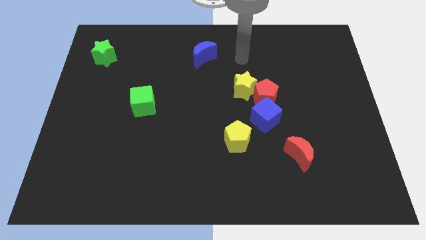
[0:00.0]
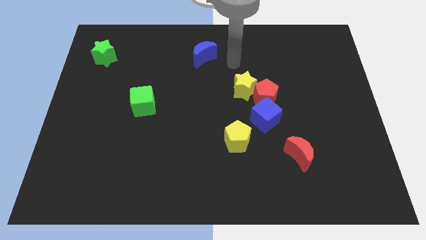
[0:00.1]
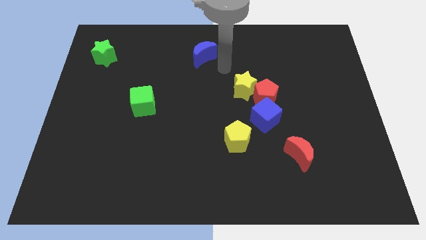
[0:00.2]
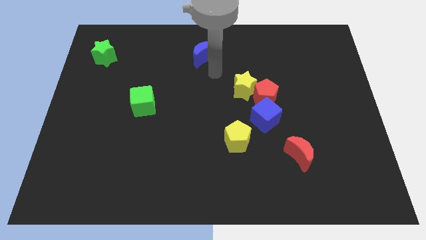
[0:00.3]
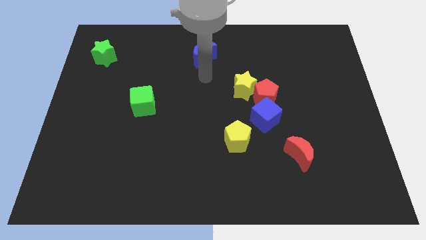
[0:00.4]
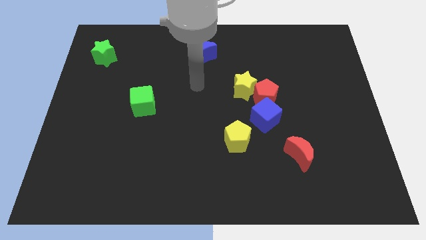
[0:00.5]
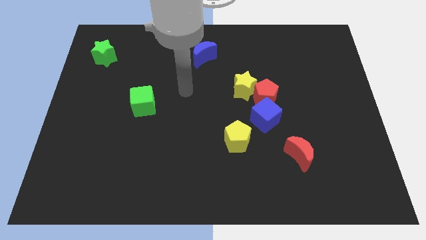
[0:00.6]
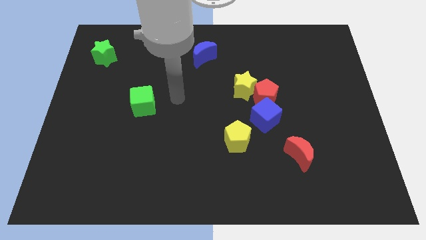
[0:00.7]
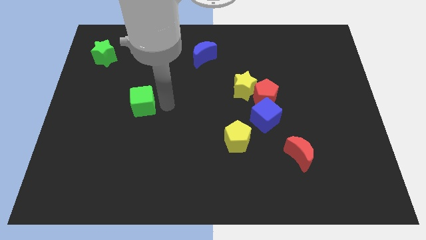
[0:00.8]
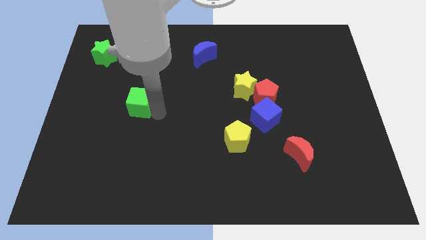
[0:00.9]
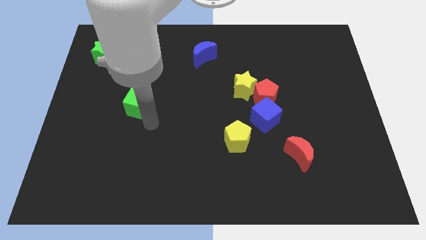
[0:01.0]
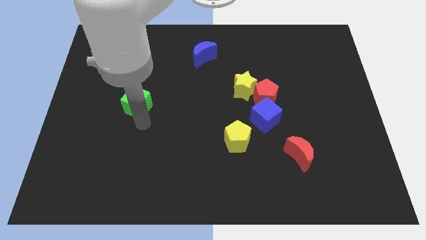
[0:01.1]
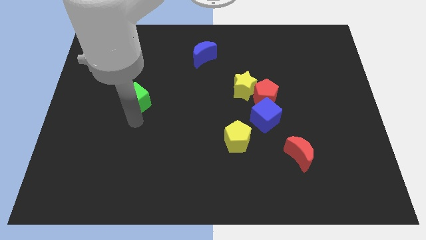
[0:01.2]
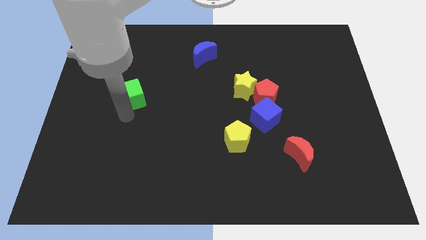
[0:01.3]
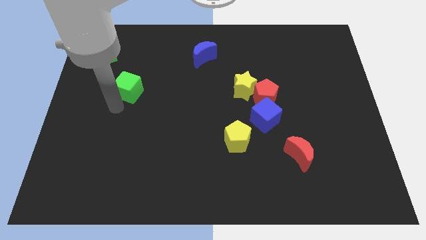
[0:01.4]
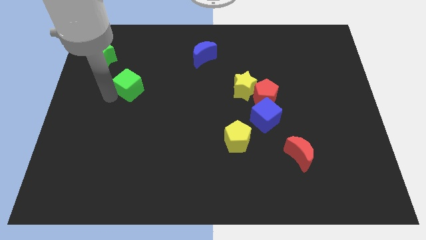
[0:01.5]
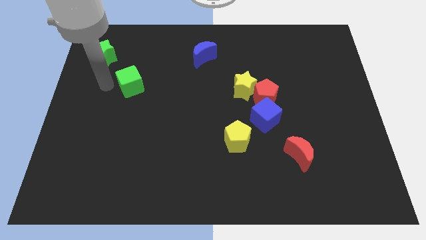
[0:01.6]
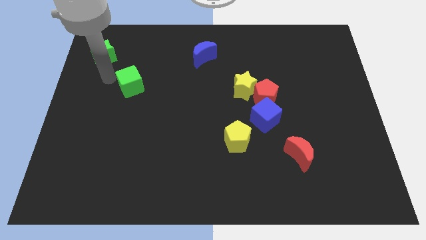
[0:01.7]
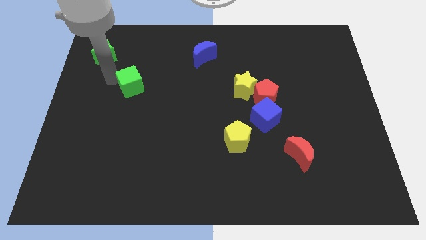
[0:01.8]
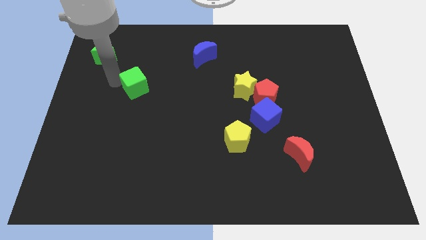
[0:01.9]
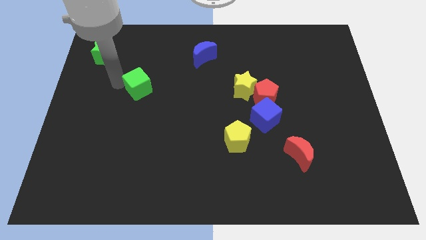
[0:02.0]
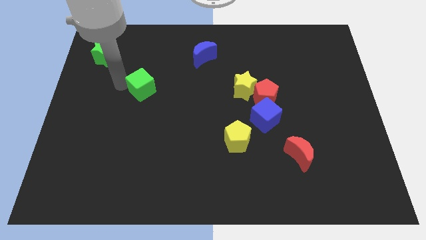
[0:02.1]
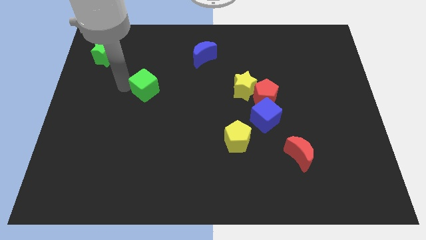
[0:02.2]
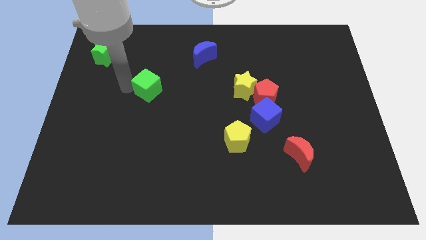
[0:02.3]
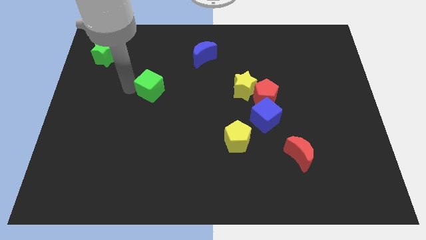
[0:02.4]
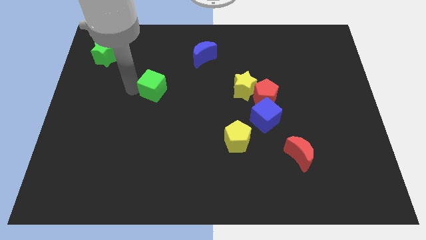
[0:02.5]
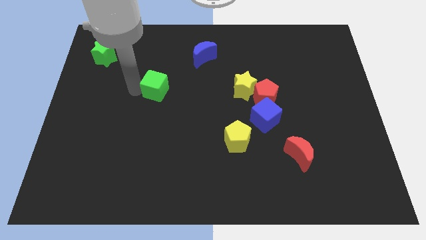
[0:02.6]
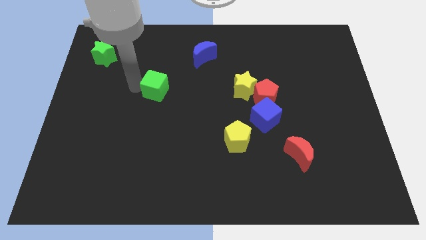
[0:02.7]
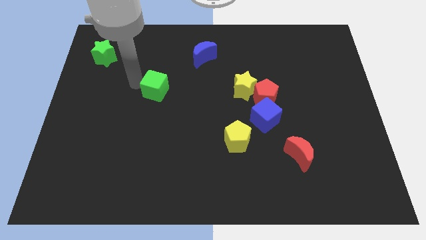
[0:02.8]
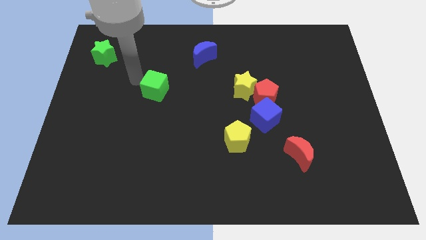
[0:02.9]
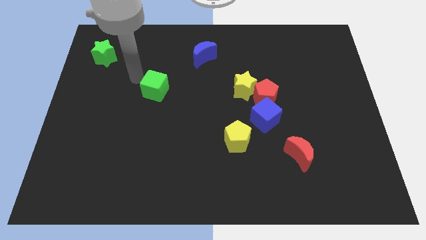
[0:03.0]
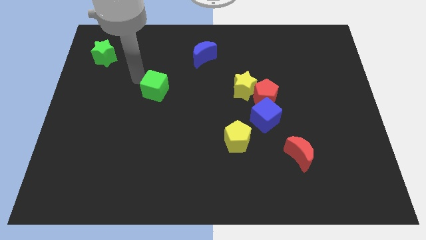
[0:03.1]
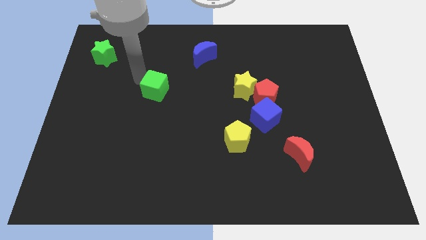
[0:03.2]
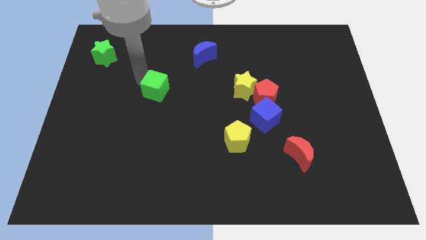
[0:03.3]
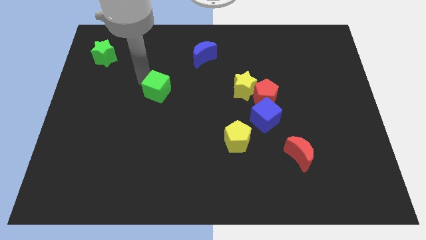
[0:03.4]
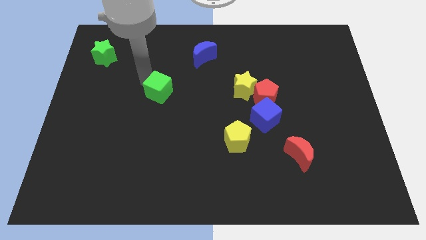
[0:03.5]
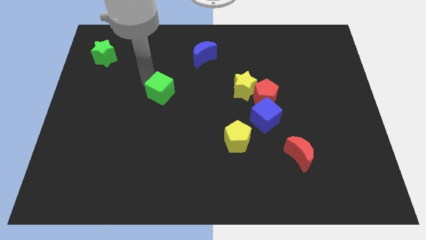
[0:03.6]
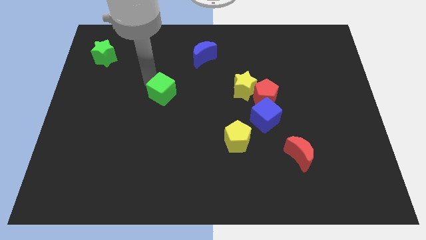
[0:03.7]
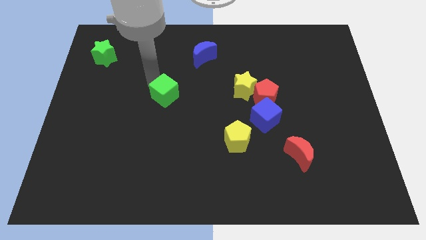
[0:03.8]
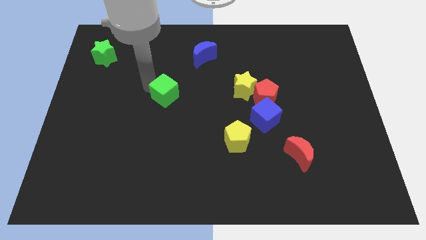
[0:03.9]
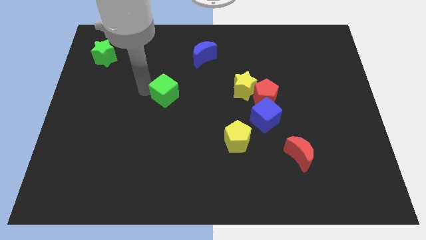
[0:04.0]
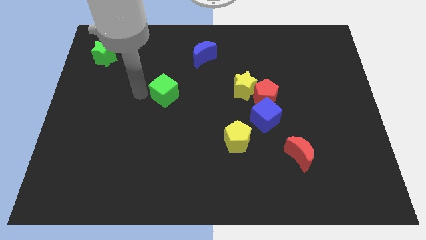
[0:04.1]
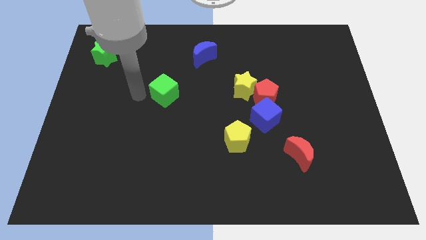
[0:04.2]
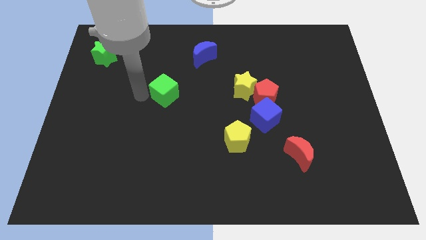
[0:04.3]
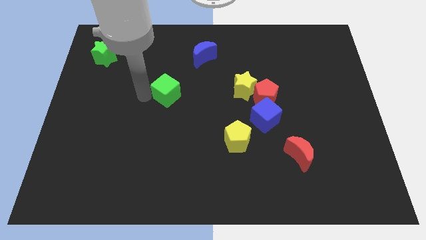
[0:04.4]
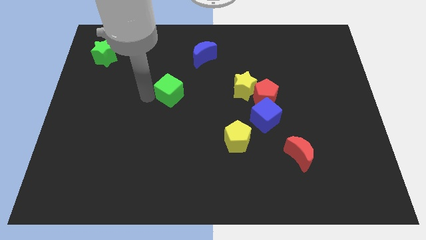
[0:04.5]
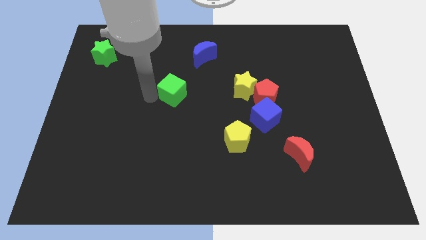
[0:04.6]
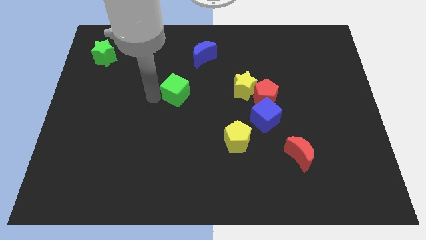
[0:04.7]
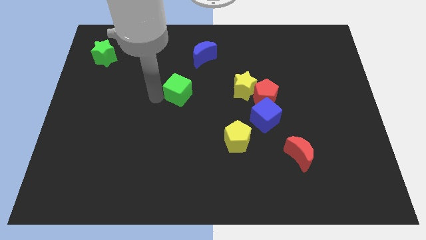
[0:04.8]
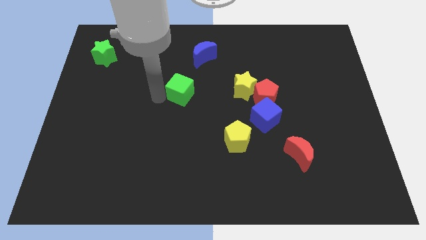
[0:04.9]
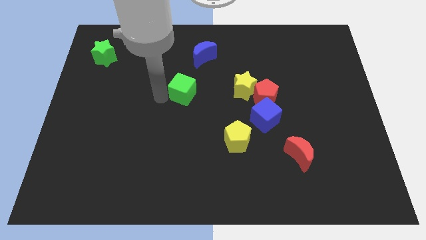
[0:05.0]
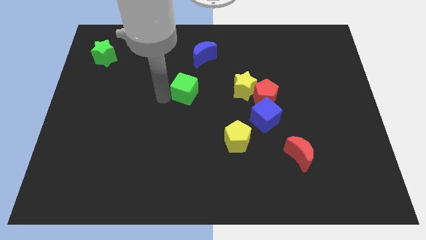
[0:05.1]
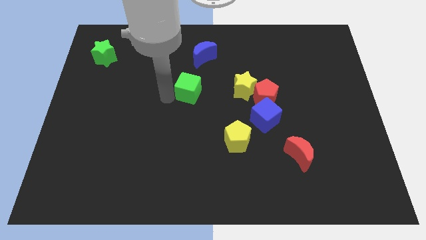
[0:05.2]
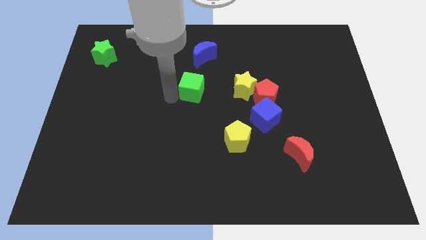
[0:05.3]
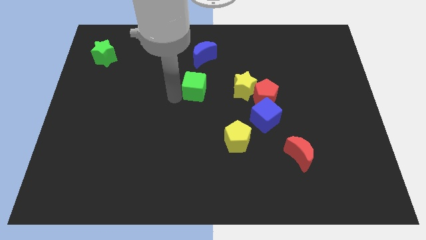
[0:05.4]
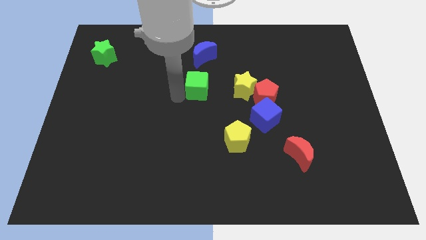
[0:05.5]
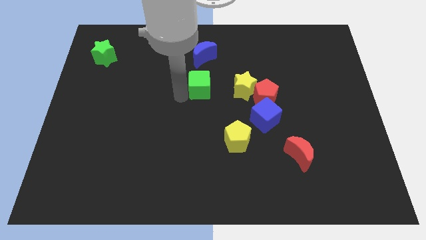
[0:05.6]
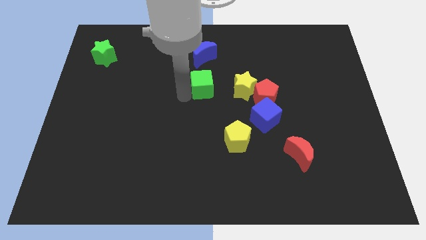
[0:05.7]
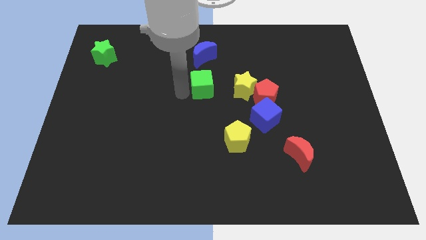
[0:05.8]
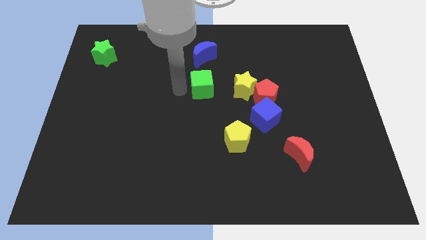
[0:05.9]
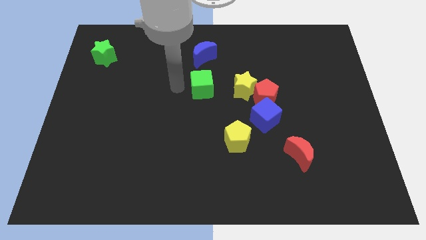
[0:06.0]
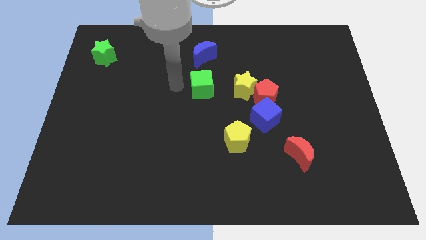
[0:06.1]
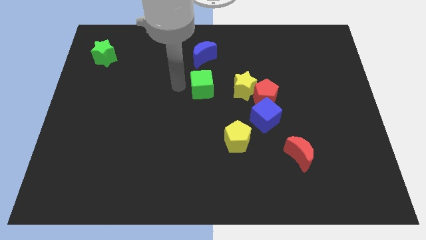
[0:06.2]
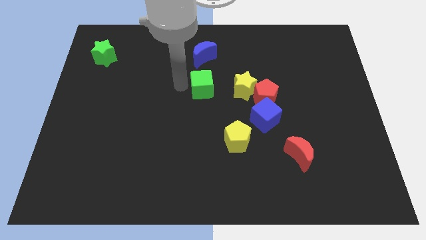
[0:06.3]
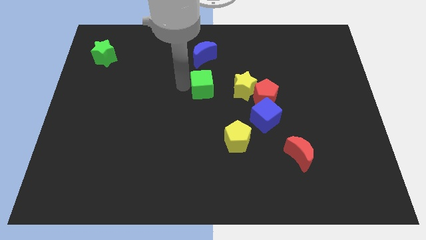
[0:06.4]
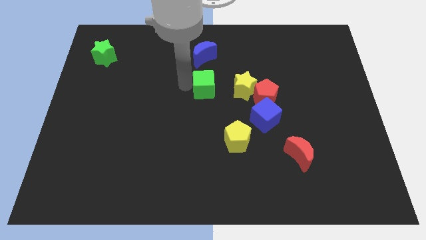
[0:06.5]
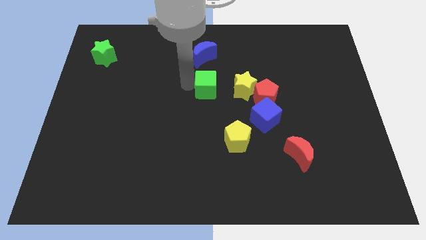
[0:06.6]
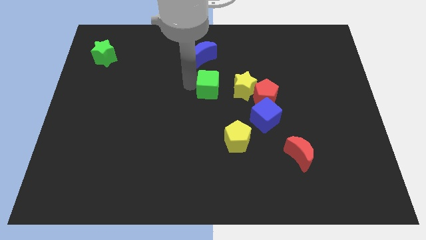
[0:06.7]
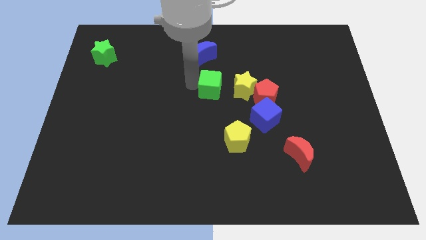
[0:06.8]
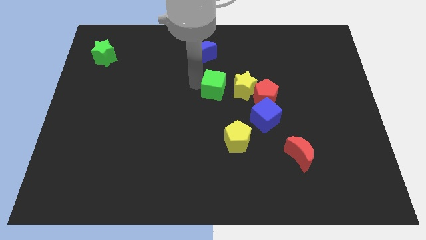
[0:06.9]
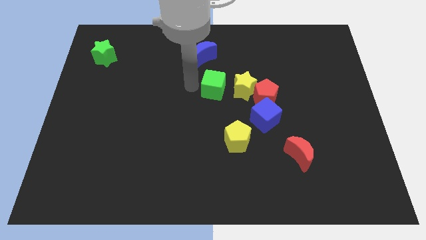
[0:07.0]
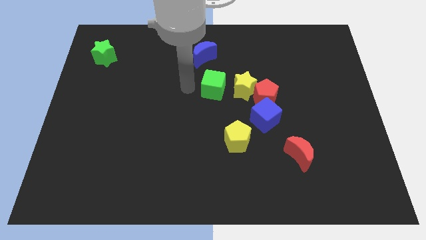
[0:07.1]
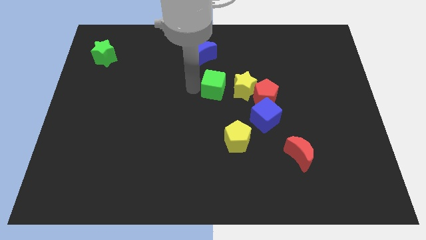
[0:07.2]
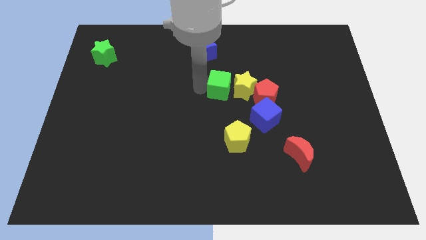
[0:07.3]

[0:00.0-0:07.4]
put the green cube towards the yellow star
